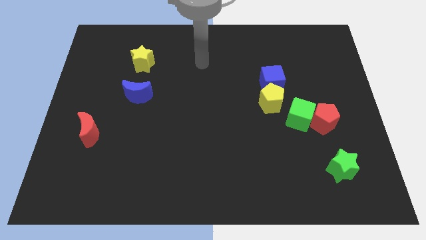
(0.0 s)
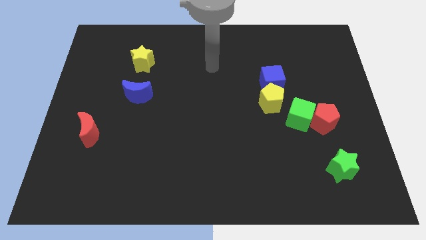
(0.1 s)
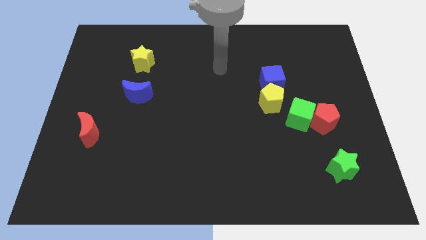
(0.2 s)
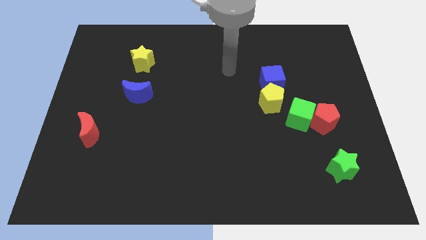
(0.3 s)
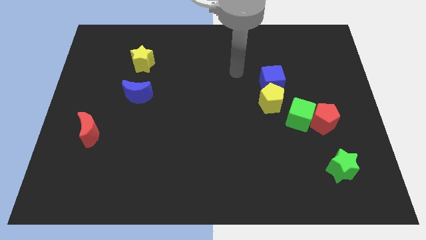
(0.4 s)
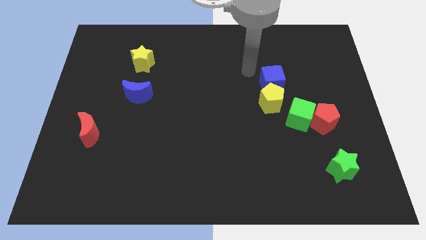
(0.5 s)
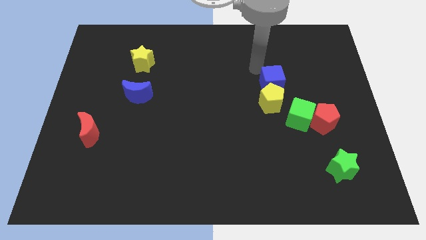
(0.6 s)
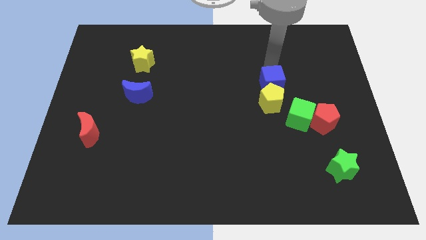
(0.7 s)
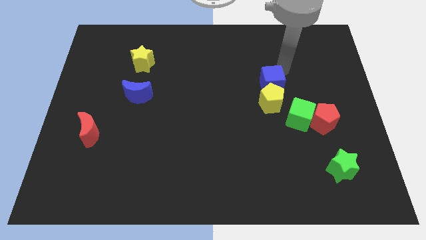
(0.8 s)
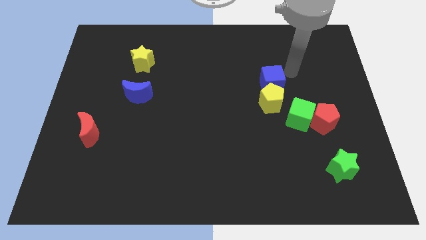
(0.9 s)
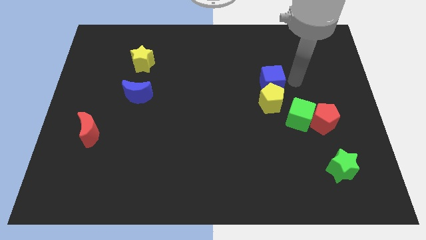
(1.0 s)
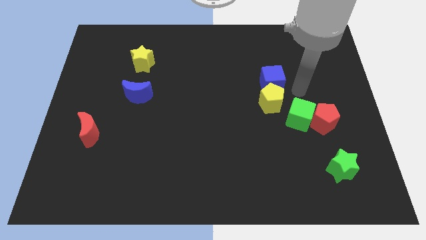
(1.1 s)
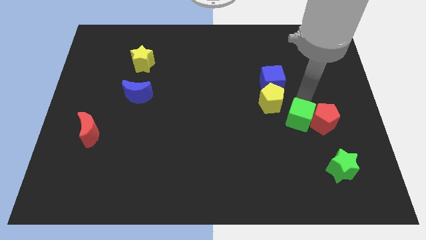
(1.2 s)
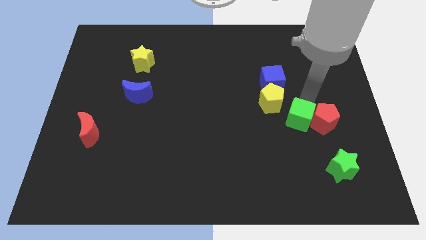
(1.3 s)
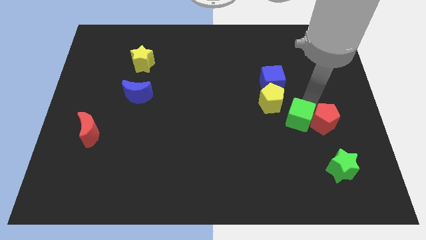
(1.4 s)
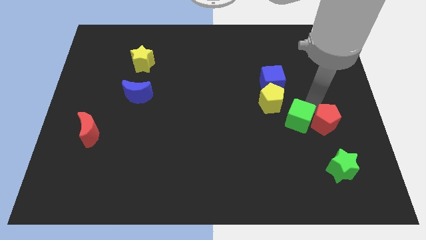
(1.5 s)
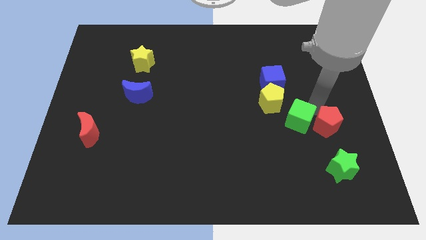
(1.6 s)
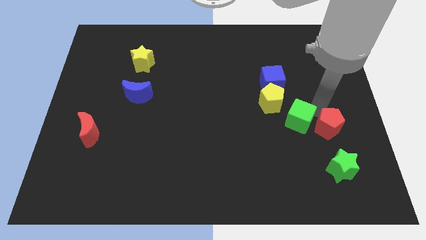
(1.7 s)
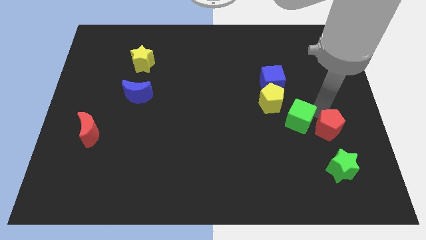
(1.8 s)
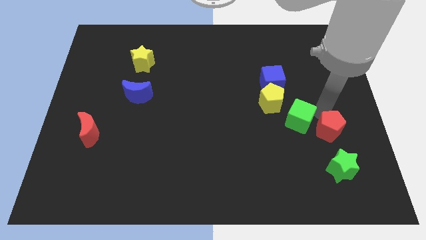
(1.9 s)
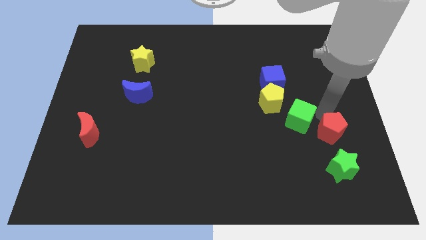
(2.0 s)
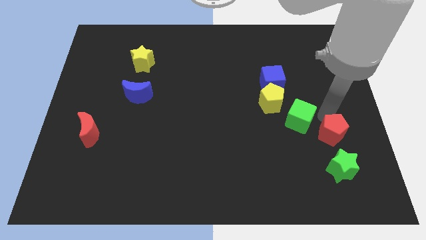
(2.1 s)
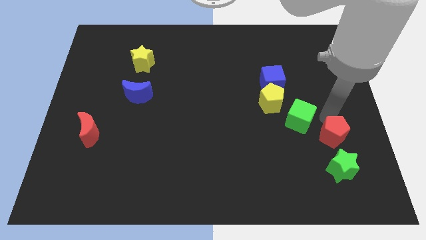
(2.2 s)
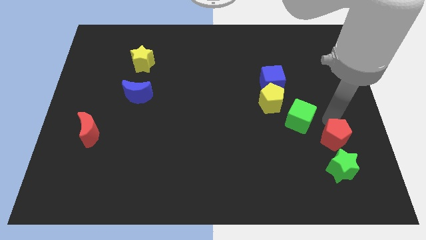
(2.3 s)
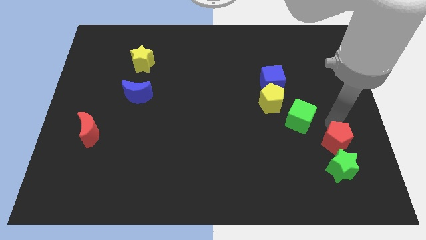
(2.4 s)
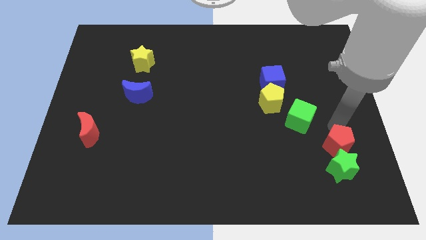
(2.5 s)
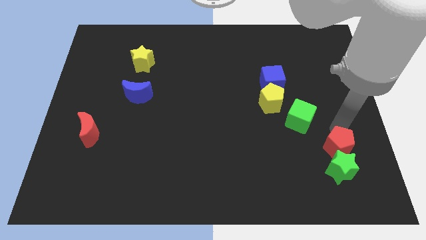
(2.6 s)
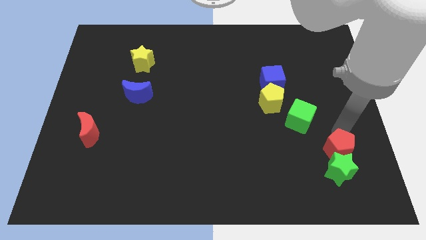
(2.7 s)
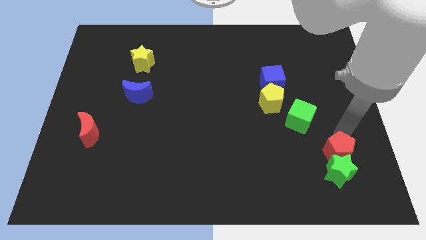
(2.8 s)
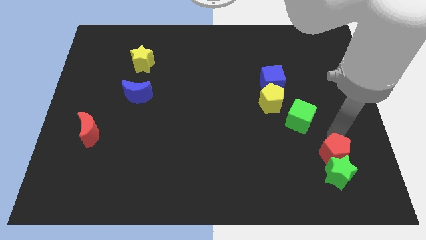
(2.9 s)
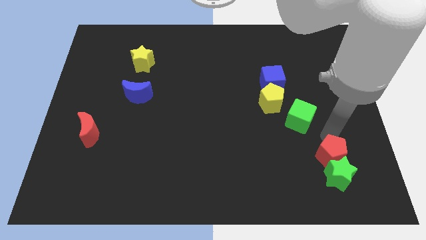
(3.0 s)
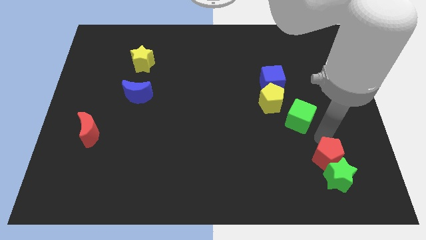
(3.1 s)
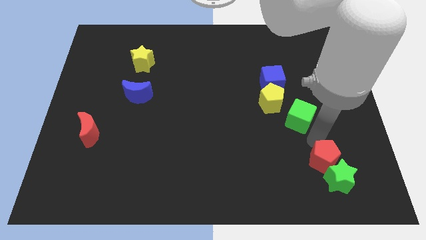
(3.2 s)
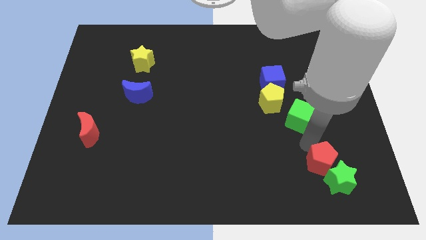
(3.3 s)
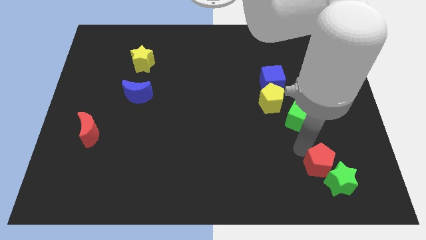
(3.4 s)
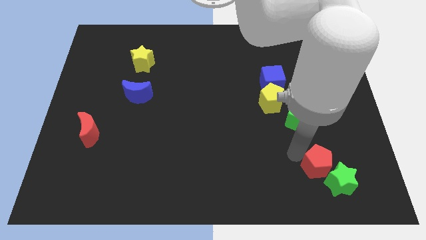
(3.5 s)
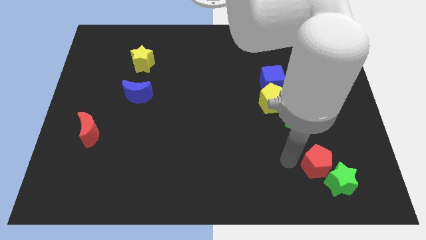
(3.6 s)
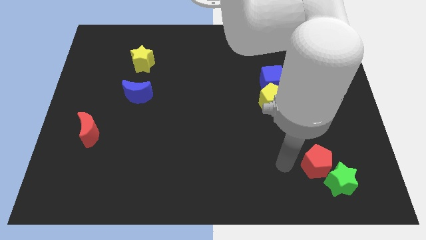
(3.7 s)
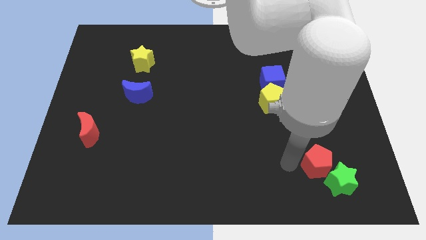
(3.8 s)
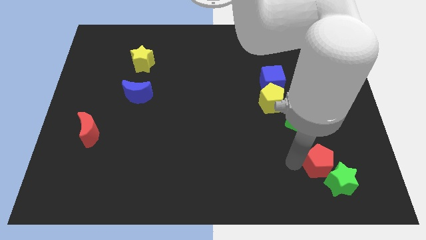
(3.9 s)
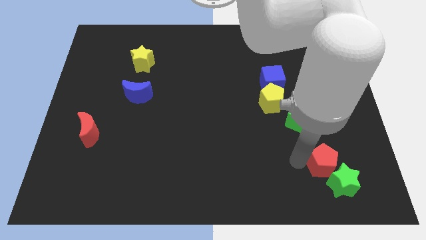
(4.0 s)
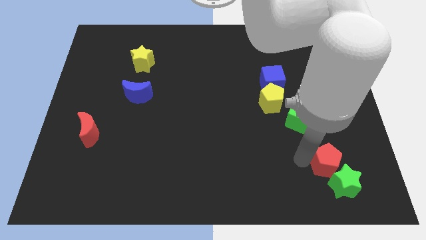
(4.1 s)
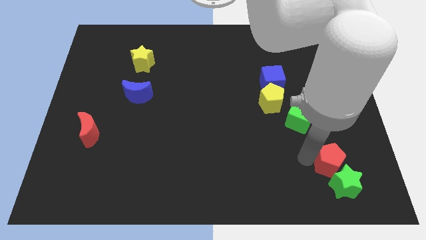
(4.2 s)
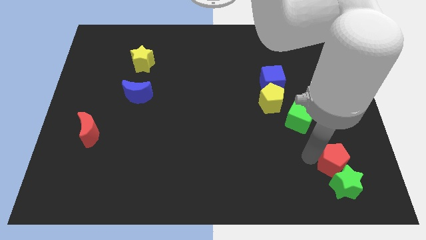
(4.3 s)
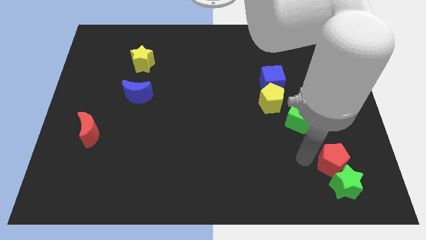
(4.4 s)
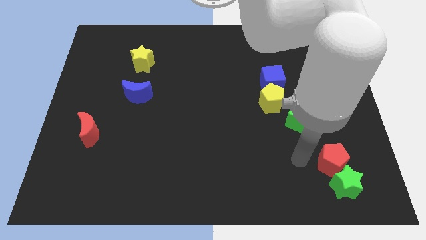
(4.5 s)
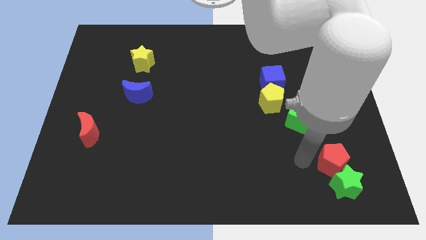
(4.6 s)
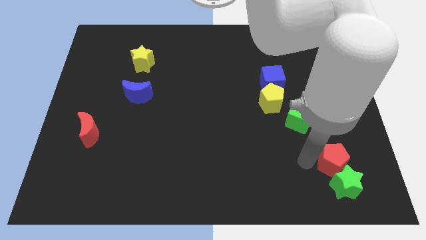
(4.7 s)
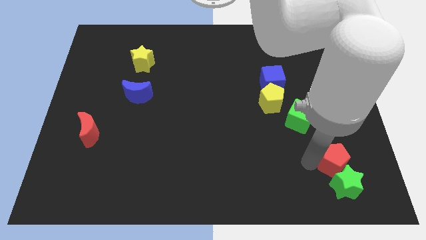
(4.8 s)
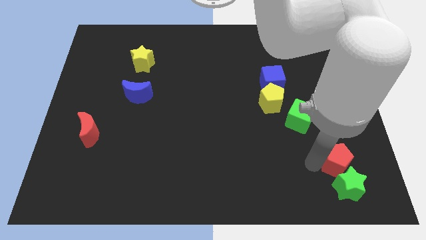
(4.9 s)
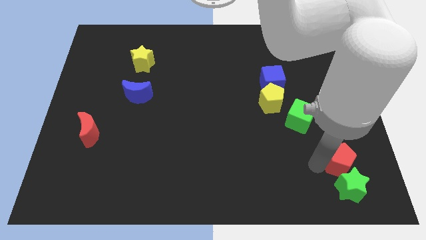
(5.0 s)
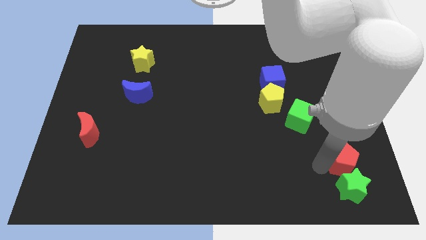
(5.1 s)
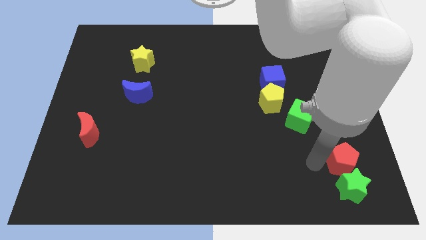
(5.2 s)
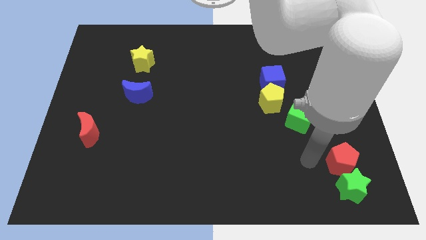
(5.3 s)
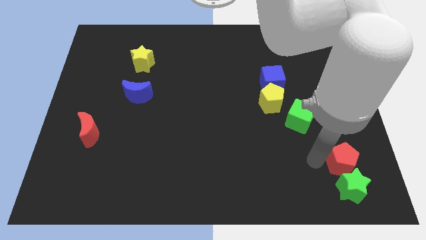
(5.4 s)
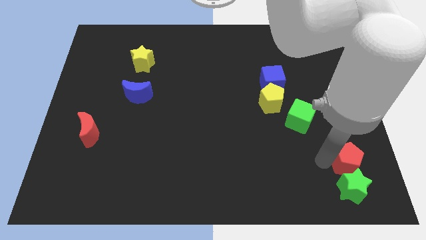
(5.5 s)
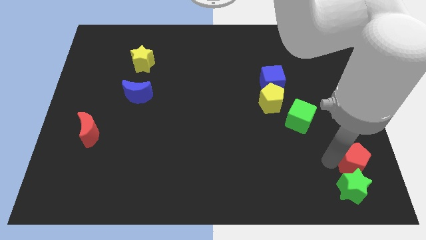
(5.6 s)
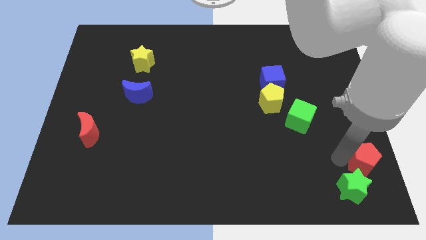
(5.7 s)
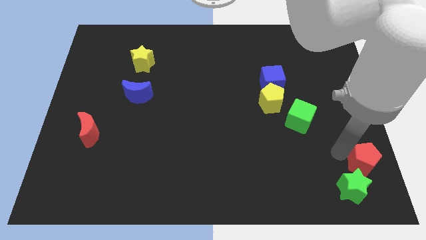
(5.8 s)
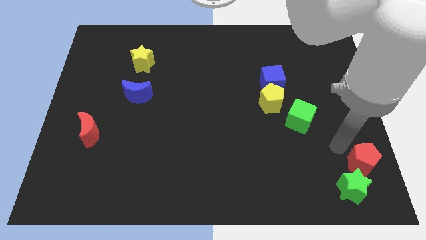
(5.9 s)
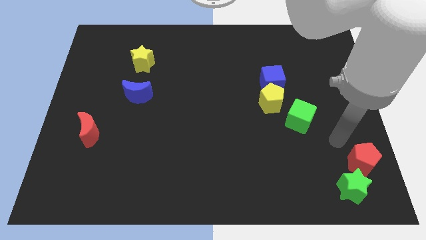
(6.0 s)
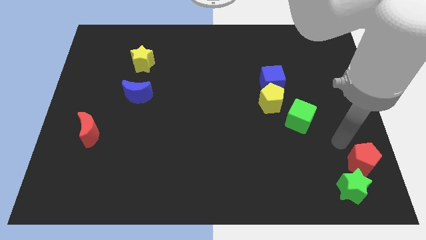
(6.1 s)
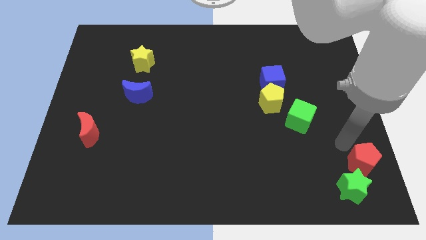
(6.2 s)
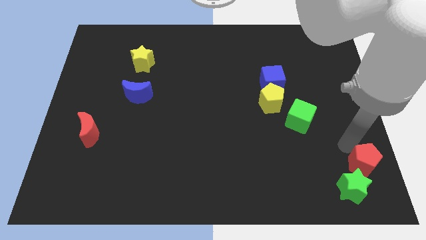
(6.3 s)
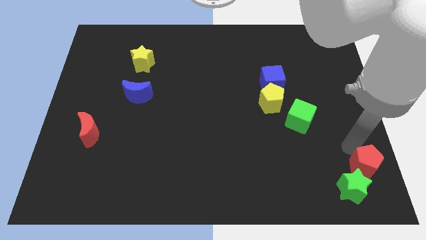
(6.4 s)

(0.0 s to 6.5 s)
put the red pentagon to the bottom right of the board

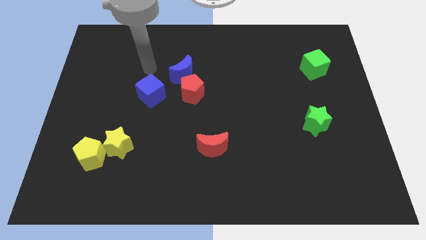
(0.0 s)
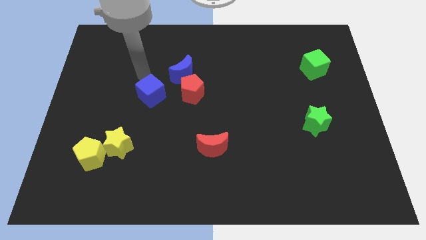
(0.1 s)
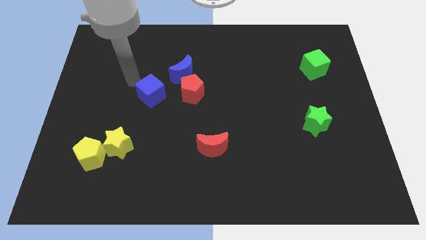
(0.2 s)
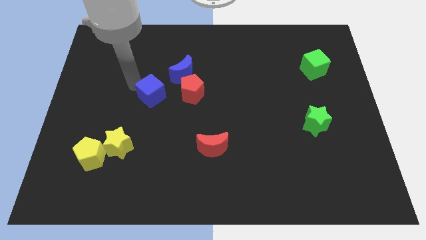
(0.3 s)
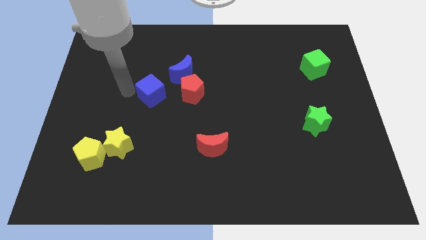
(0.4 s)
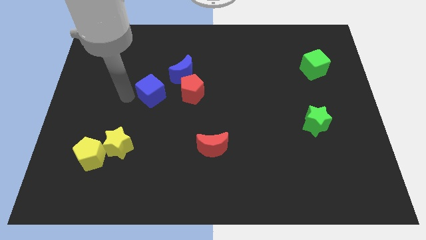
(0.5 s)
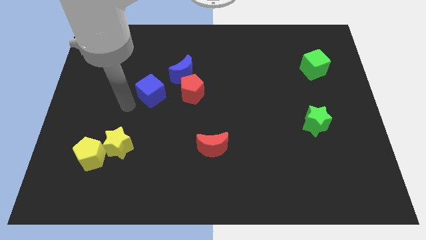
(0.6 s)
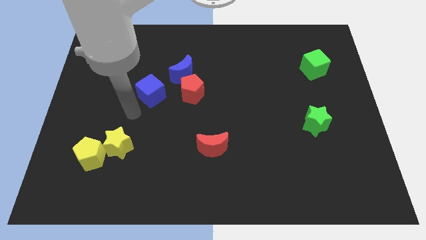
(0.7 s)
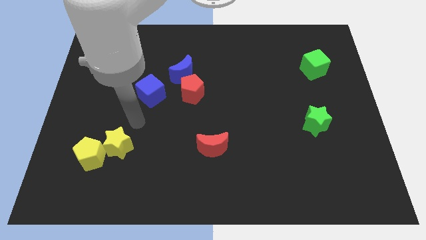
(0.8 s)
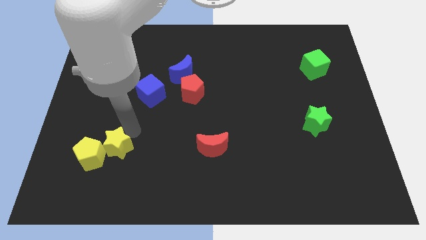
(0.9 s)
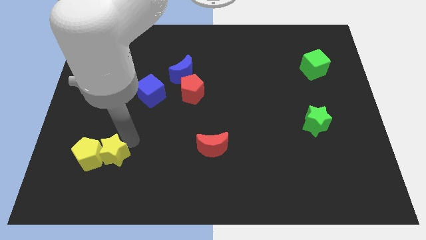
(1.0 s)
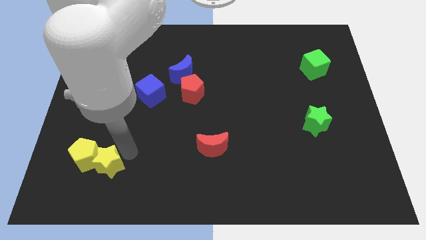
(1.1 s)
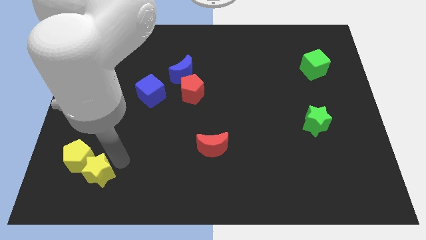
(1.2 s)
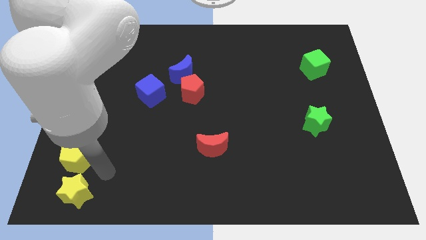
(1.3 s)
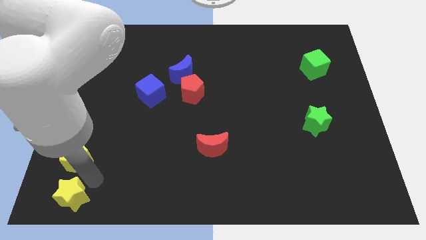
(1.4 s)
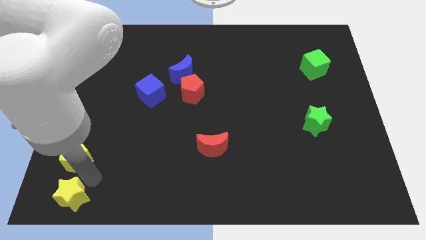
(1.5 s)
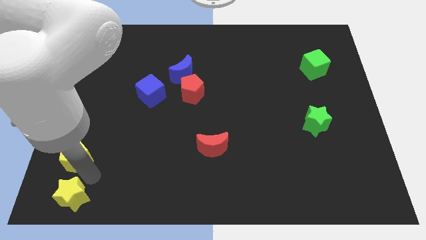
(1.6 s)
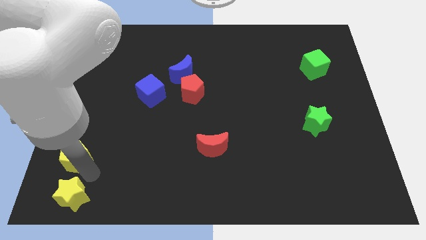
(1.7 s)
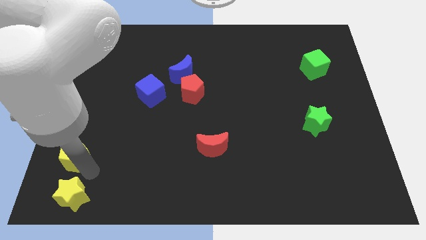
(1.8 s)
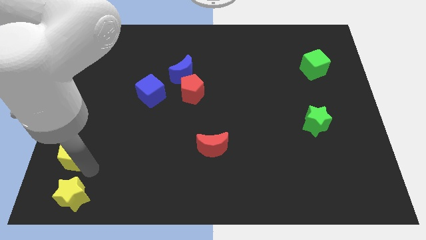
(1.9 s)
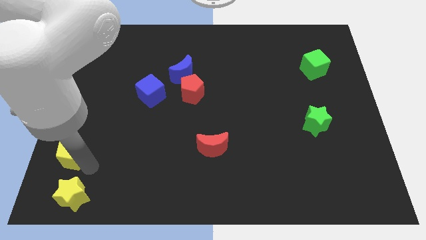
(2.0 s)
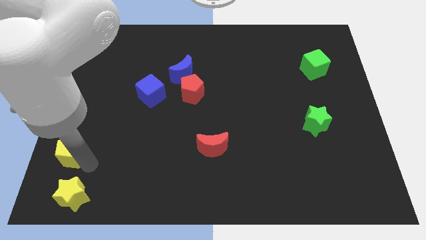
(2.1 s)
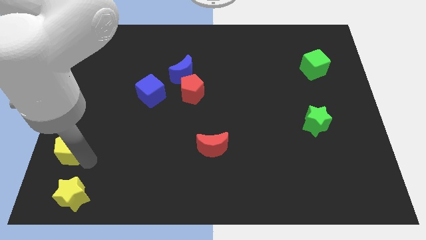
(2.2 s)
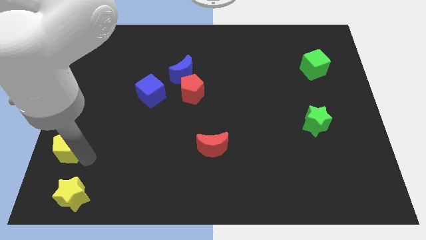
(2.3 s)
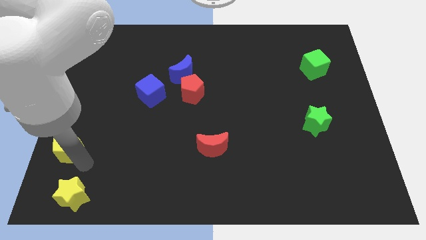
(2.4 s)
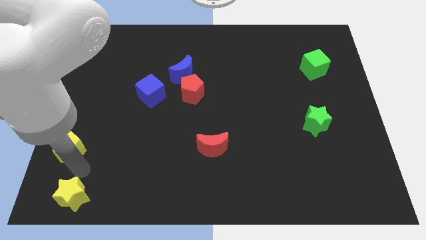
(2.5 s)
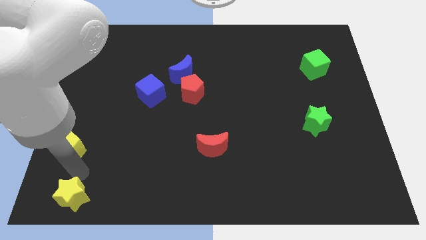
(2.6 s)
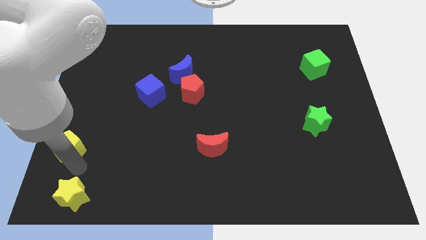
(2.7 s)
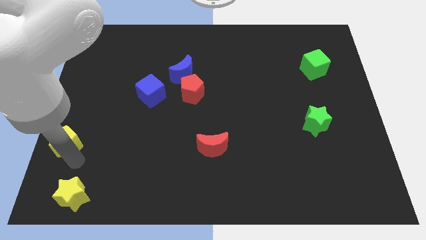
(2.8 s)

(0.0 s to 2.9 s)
put the yellow pentagon to the left side of the board
